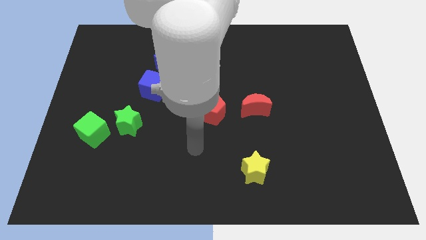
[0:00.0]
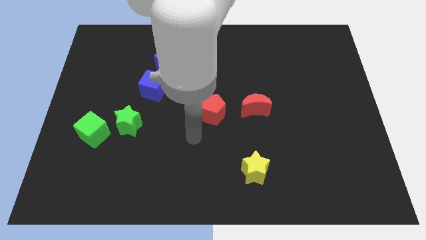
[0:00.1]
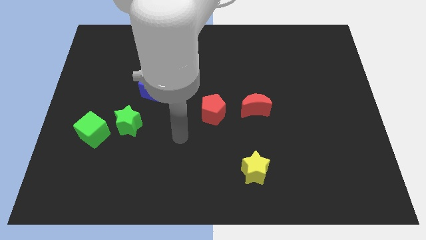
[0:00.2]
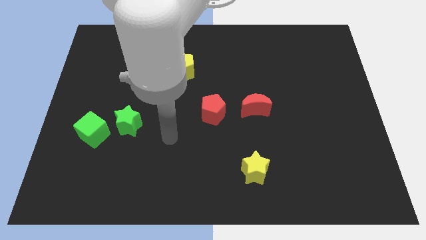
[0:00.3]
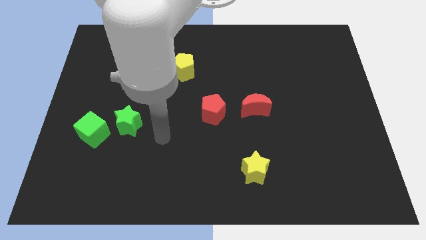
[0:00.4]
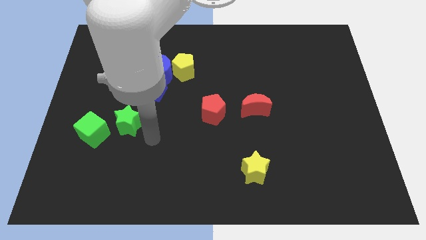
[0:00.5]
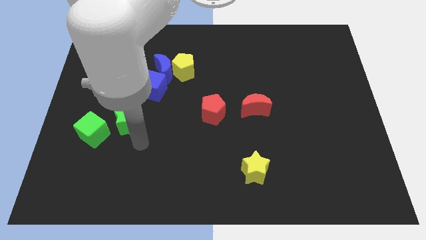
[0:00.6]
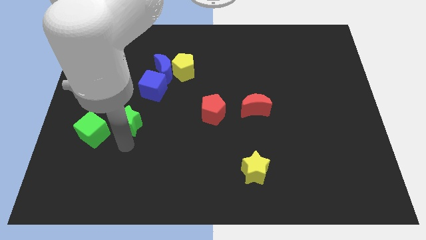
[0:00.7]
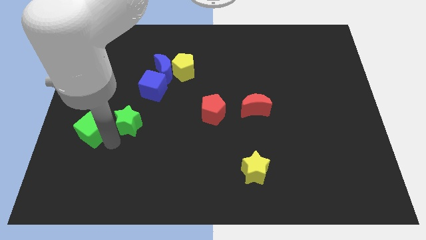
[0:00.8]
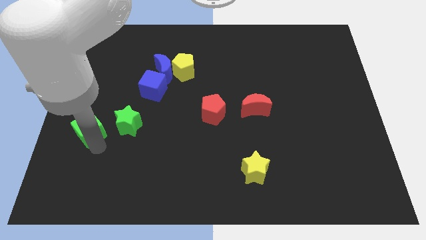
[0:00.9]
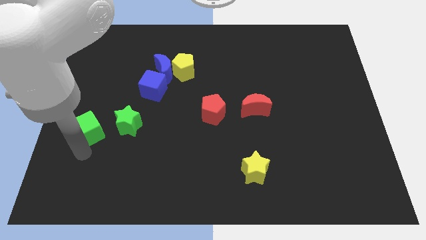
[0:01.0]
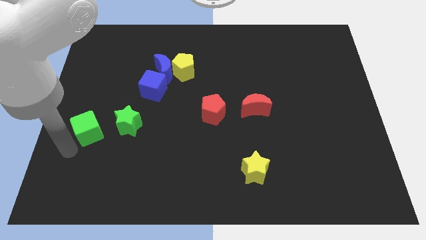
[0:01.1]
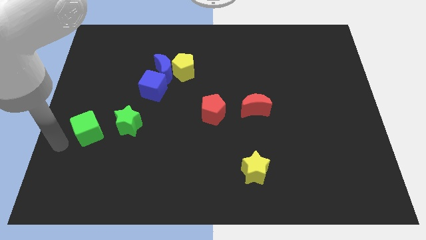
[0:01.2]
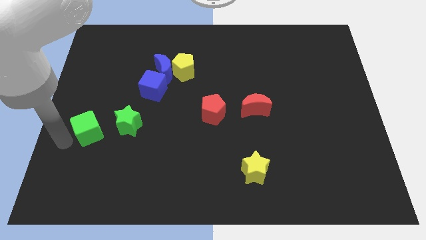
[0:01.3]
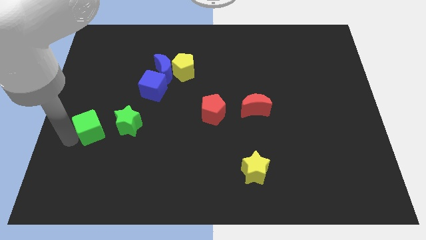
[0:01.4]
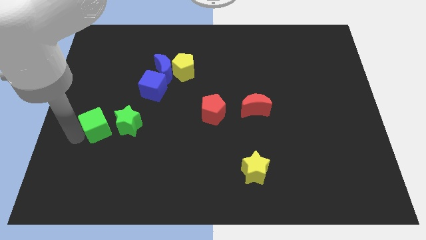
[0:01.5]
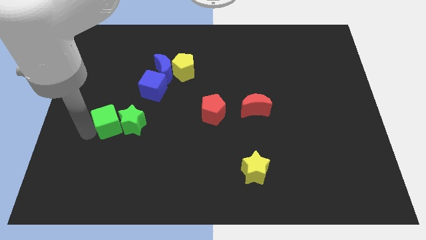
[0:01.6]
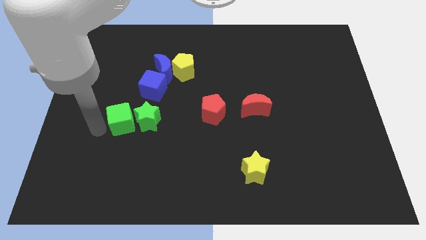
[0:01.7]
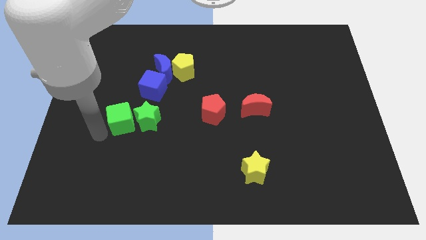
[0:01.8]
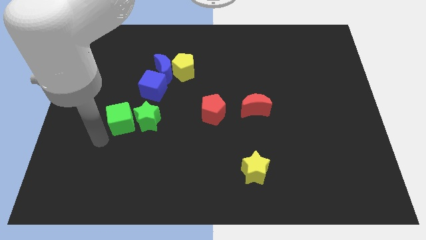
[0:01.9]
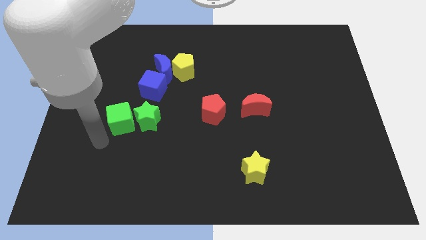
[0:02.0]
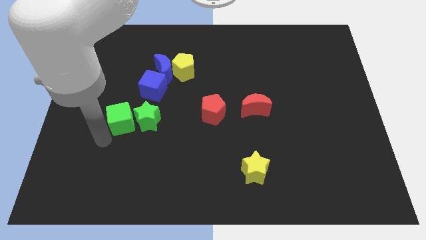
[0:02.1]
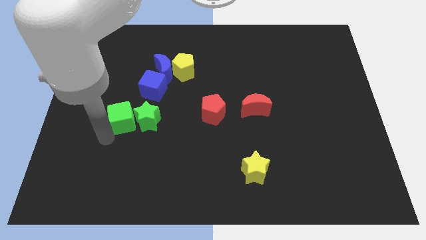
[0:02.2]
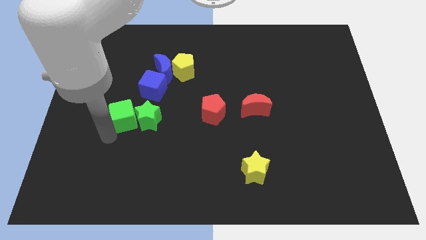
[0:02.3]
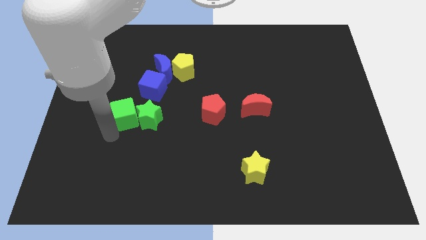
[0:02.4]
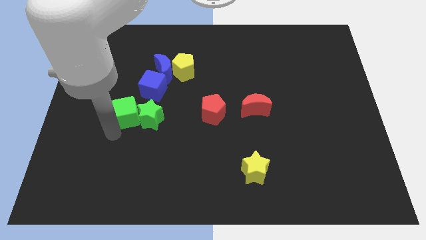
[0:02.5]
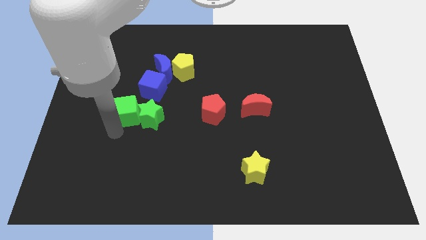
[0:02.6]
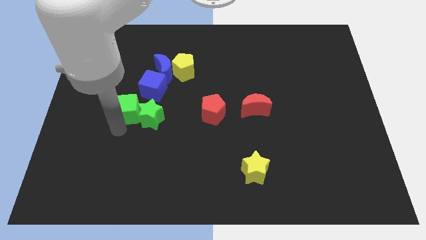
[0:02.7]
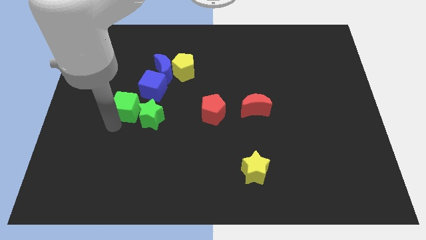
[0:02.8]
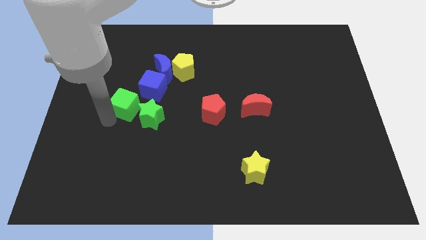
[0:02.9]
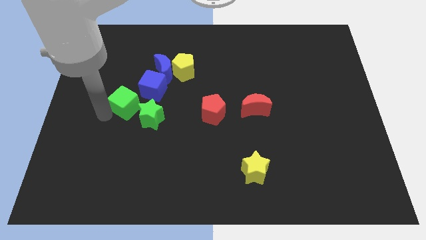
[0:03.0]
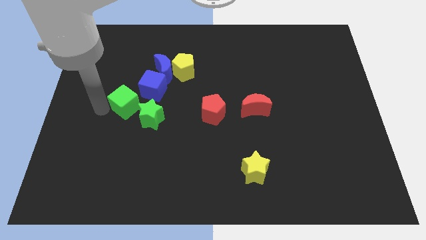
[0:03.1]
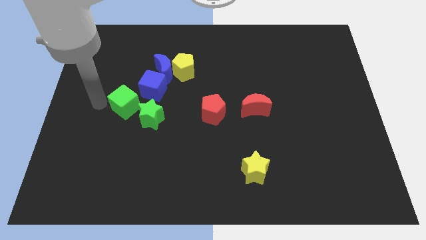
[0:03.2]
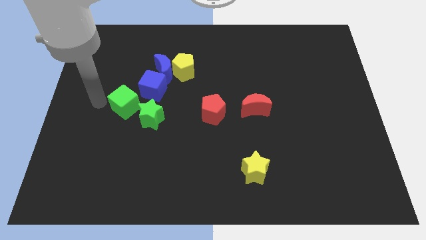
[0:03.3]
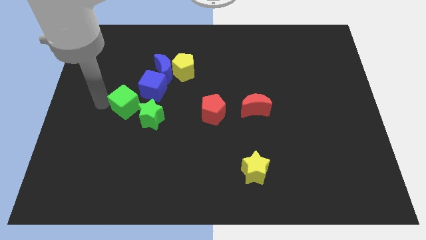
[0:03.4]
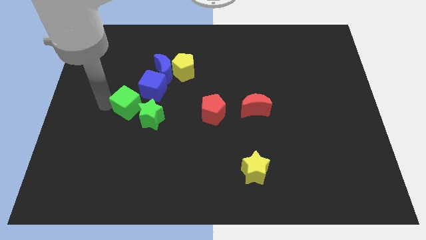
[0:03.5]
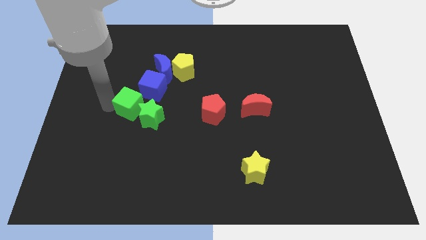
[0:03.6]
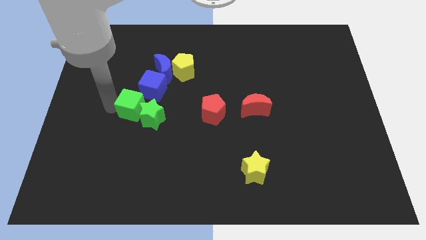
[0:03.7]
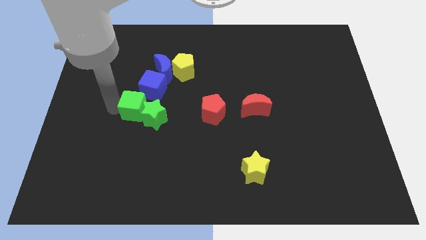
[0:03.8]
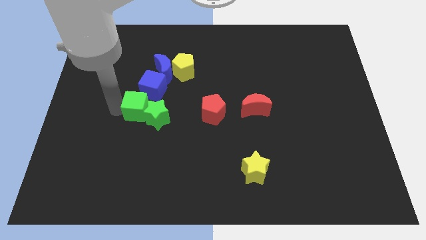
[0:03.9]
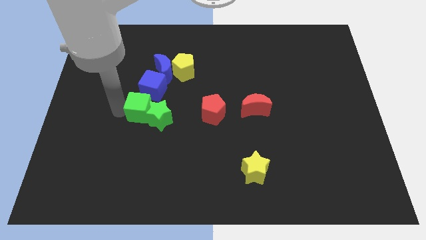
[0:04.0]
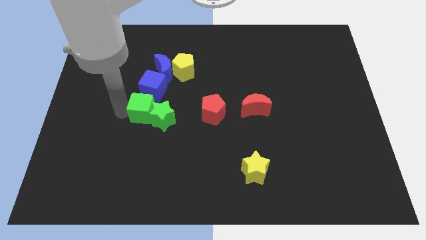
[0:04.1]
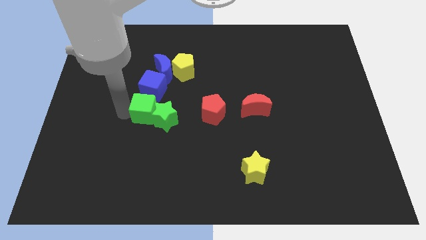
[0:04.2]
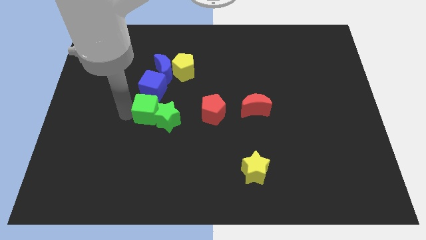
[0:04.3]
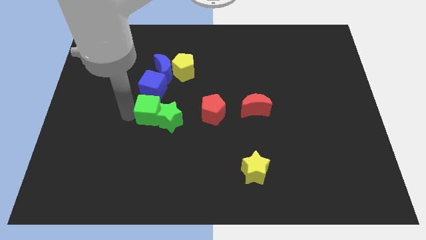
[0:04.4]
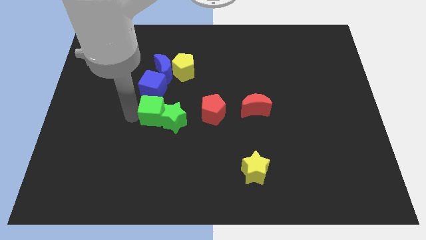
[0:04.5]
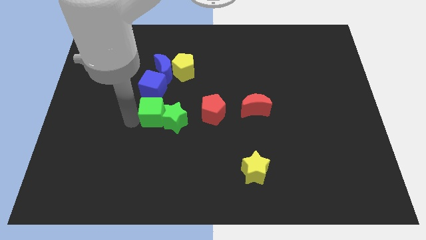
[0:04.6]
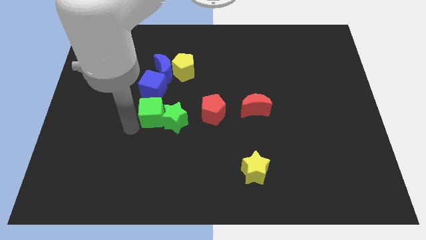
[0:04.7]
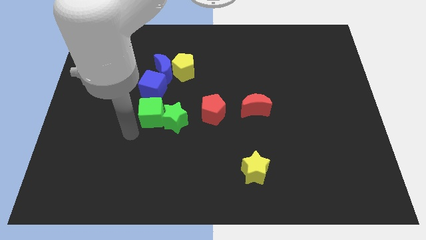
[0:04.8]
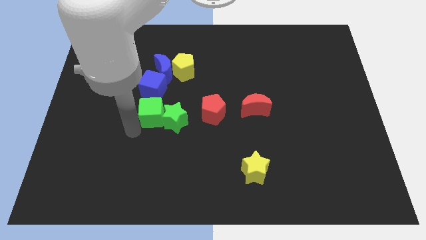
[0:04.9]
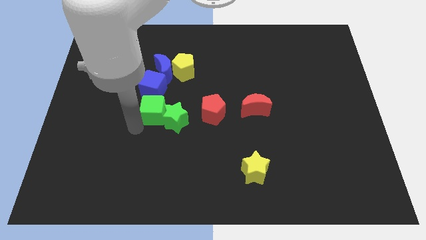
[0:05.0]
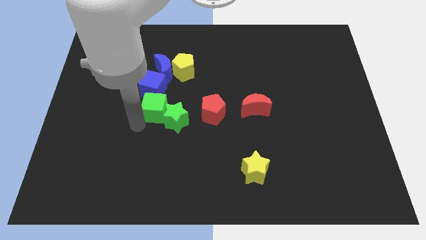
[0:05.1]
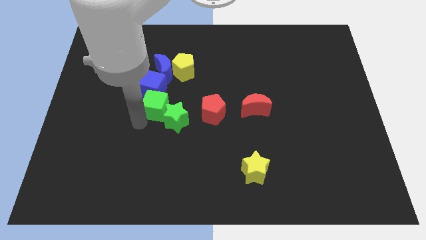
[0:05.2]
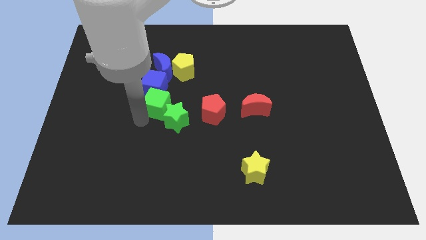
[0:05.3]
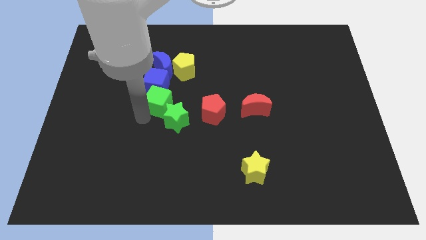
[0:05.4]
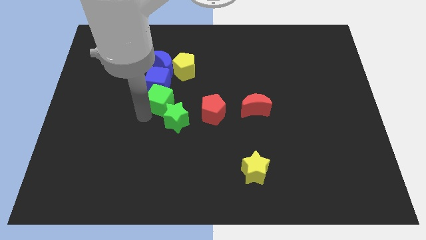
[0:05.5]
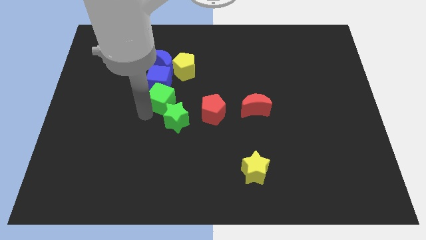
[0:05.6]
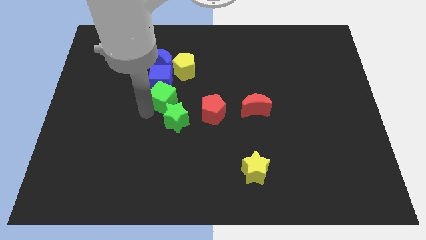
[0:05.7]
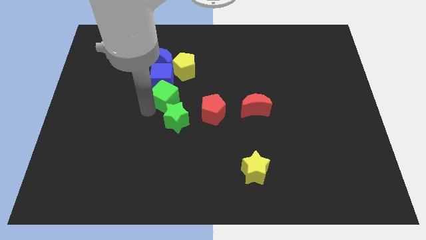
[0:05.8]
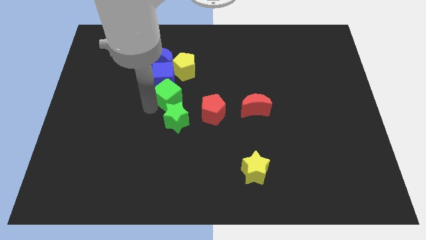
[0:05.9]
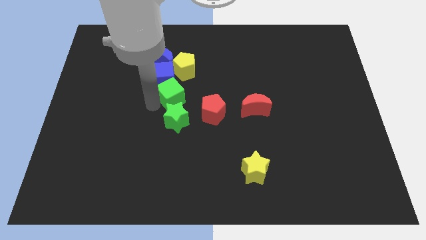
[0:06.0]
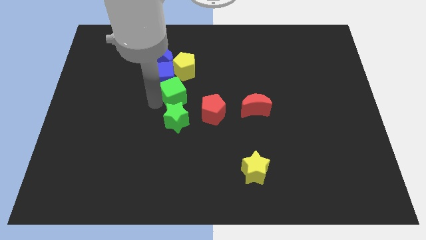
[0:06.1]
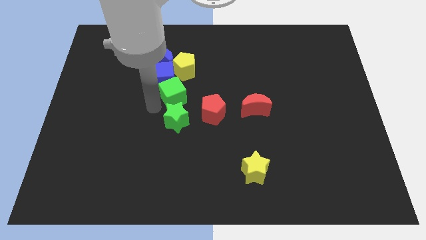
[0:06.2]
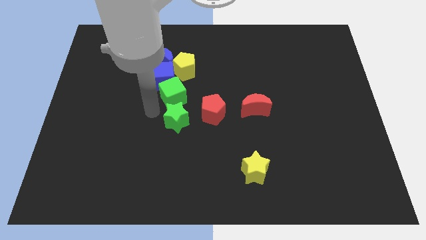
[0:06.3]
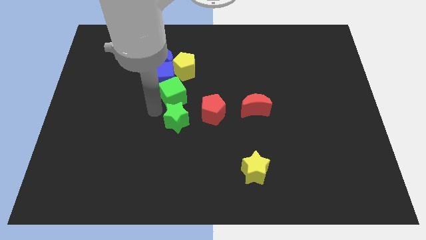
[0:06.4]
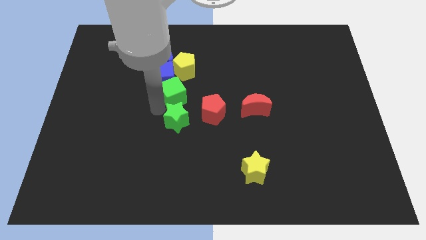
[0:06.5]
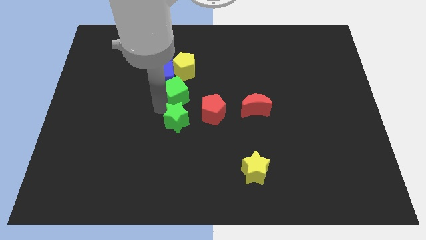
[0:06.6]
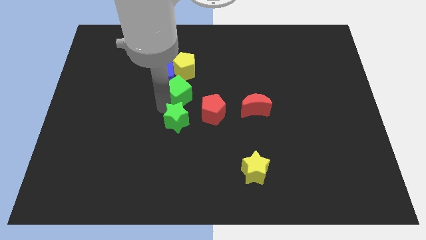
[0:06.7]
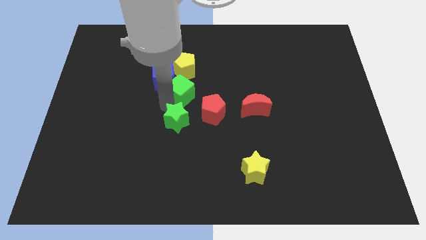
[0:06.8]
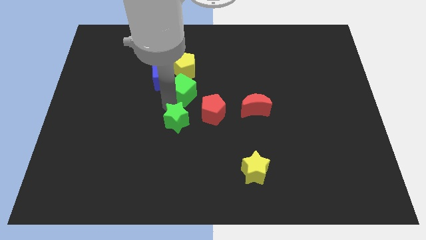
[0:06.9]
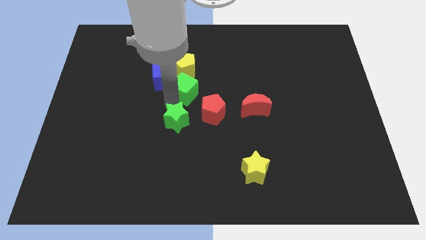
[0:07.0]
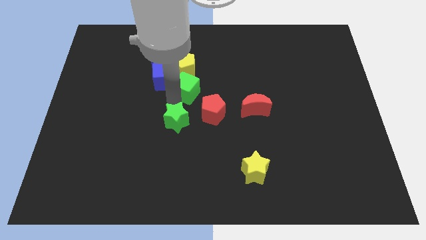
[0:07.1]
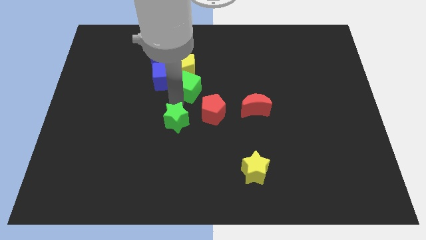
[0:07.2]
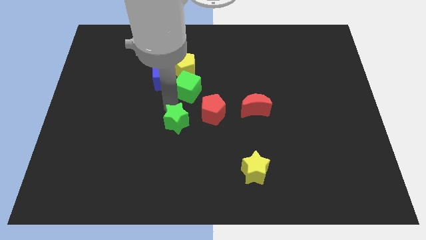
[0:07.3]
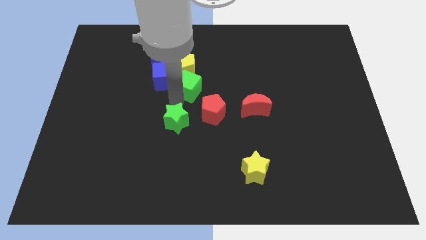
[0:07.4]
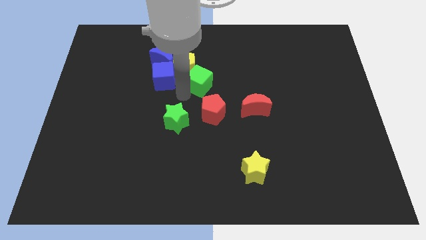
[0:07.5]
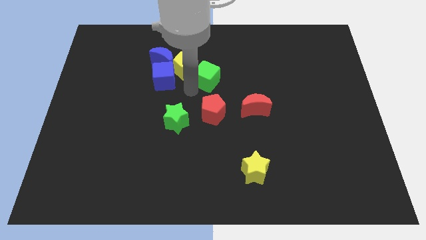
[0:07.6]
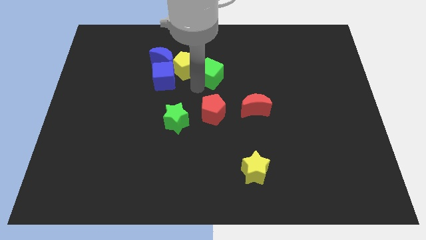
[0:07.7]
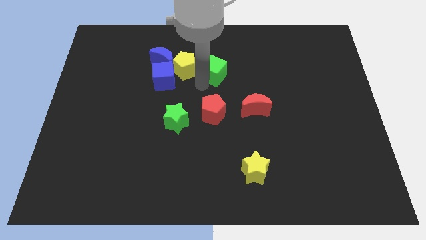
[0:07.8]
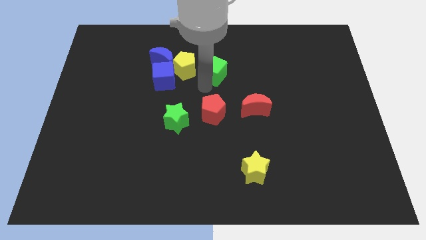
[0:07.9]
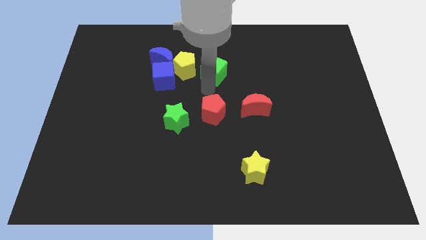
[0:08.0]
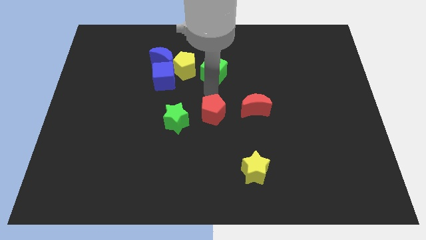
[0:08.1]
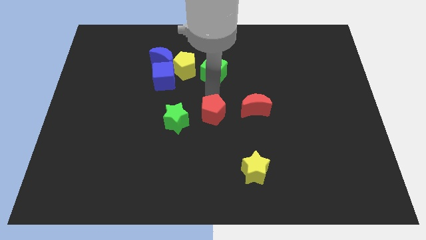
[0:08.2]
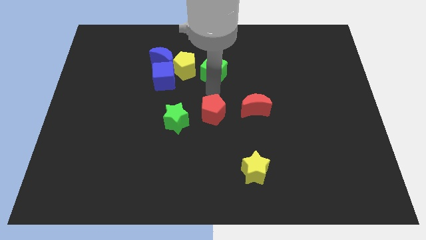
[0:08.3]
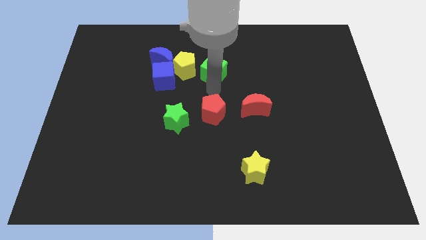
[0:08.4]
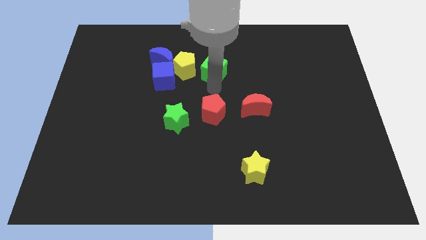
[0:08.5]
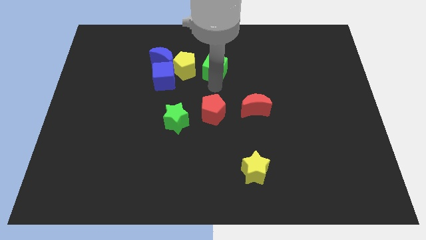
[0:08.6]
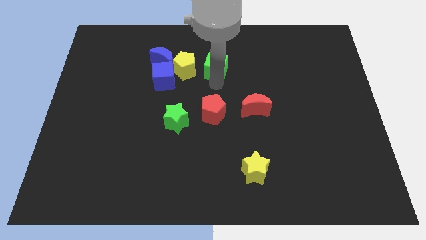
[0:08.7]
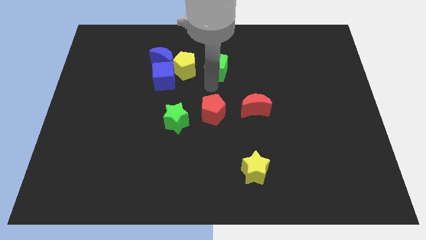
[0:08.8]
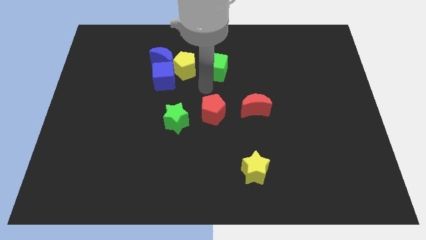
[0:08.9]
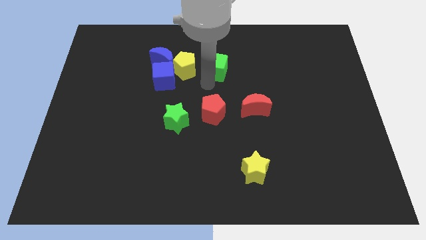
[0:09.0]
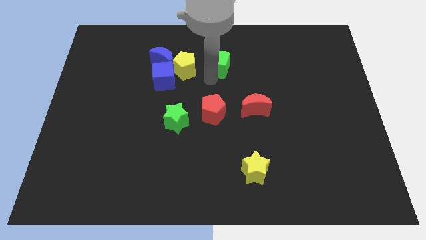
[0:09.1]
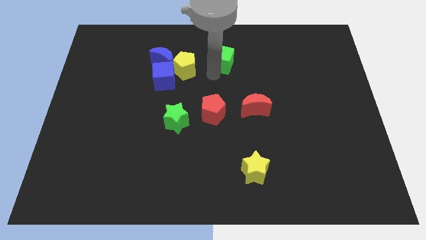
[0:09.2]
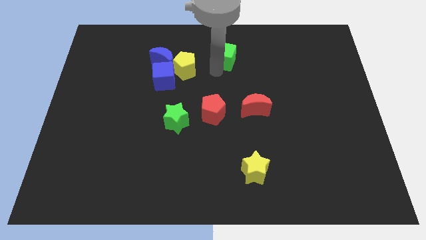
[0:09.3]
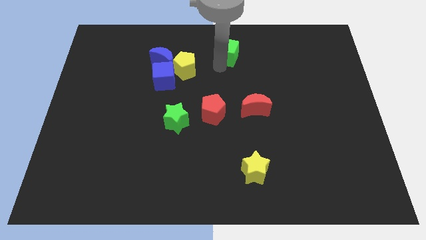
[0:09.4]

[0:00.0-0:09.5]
put the green cube to the top
